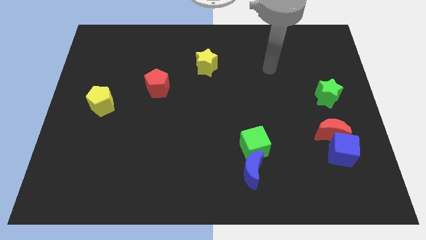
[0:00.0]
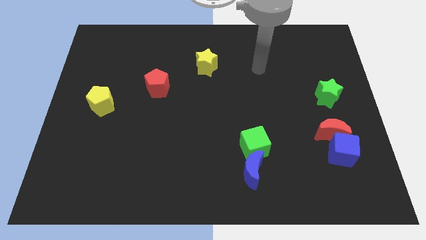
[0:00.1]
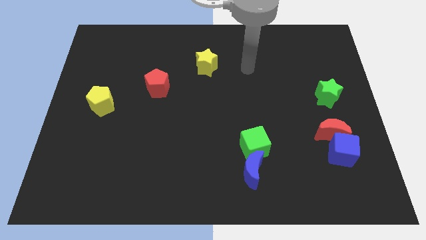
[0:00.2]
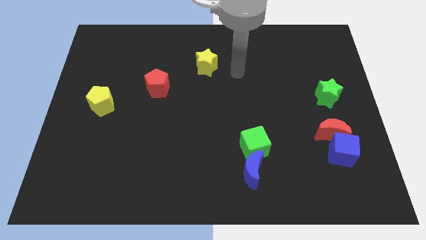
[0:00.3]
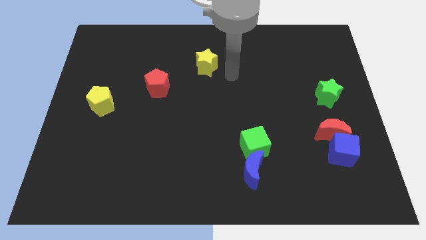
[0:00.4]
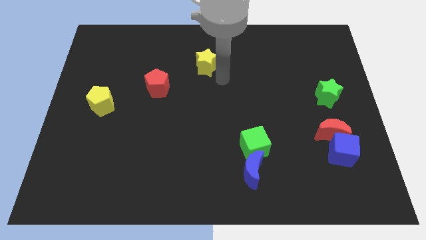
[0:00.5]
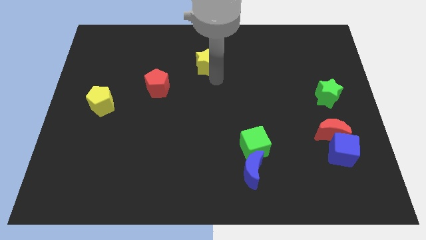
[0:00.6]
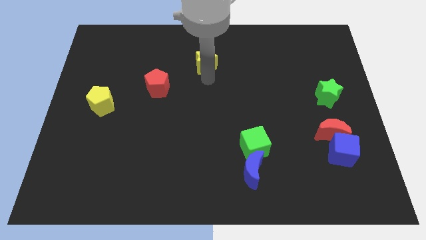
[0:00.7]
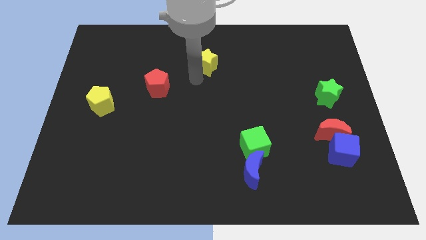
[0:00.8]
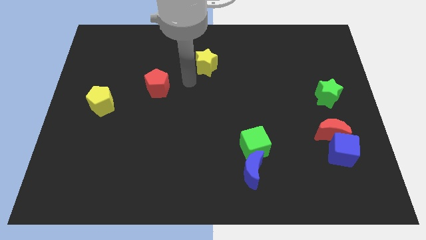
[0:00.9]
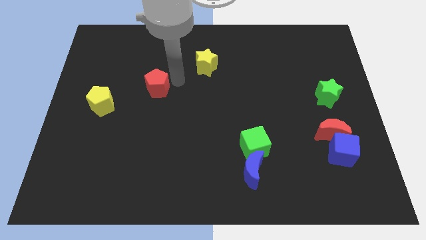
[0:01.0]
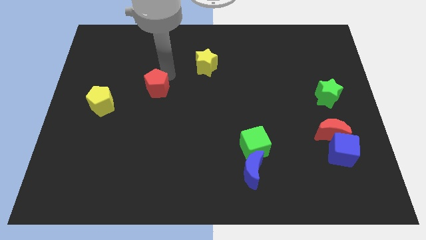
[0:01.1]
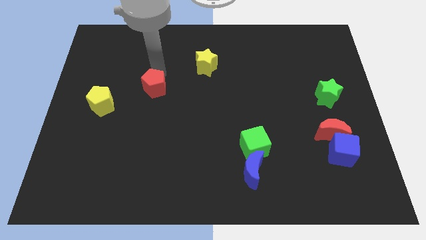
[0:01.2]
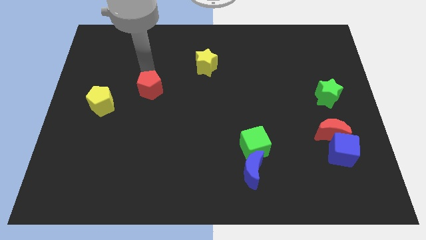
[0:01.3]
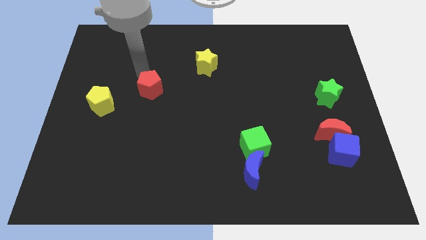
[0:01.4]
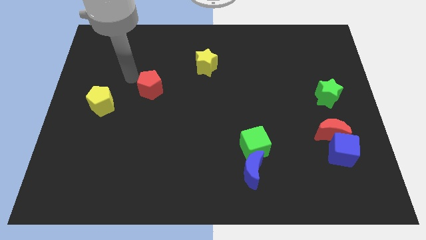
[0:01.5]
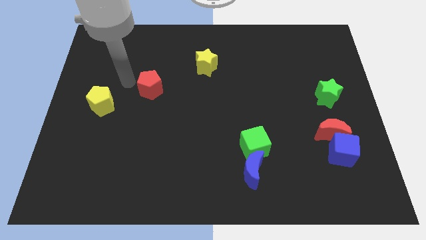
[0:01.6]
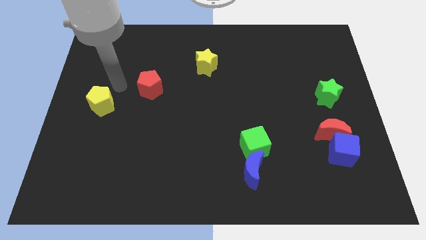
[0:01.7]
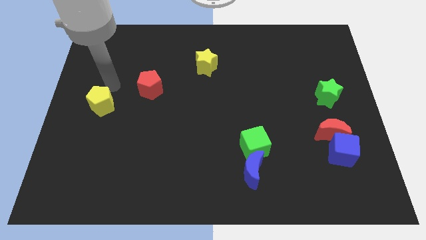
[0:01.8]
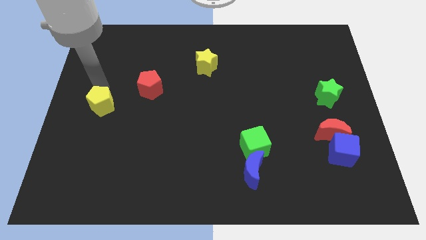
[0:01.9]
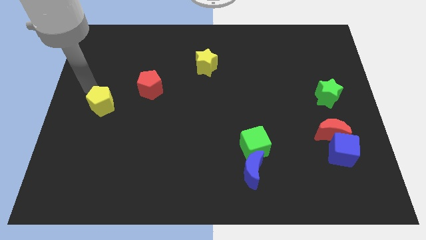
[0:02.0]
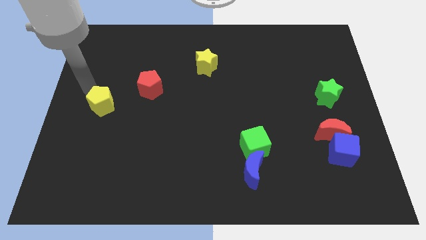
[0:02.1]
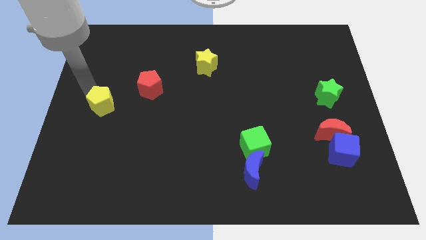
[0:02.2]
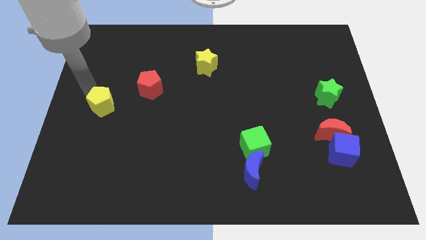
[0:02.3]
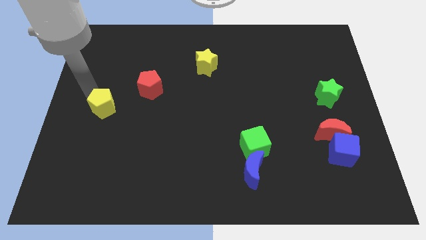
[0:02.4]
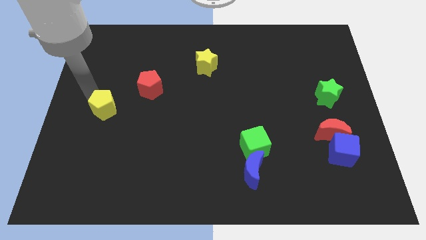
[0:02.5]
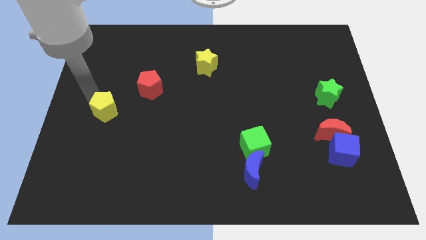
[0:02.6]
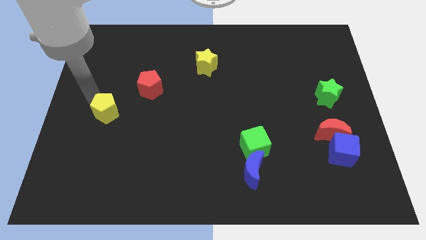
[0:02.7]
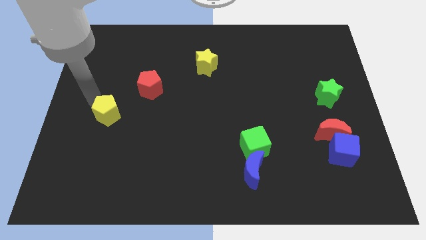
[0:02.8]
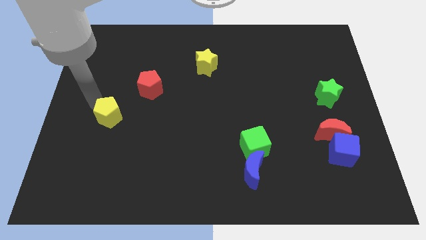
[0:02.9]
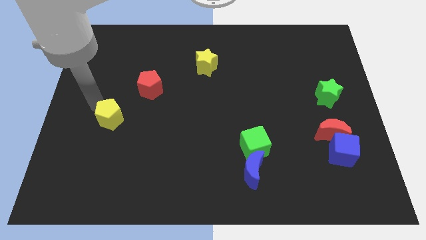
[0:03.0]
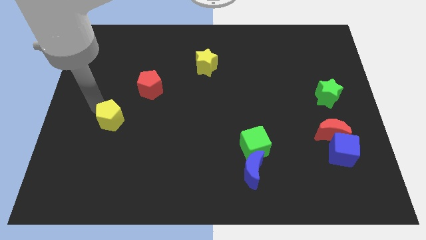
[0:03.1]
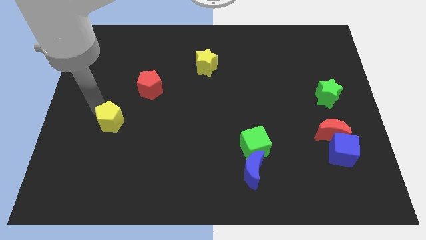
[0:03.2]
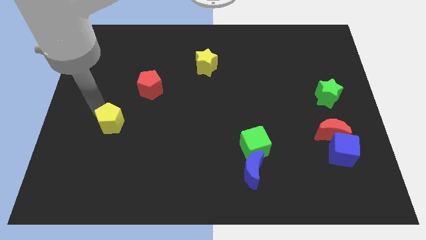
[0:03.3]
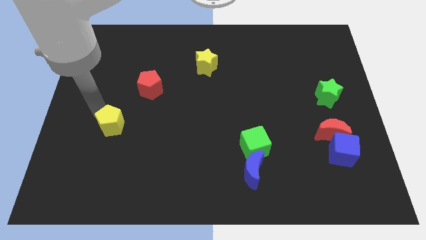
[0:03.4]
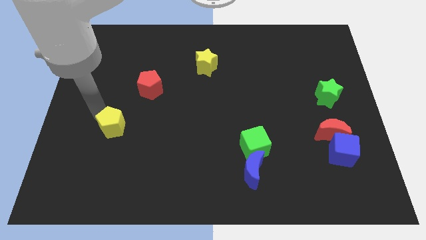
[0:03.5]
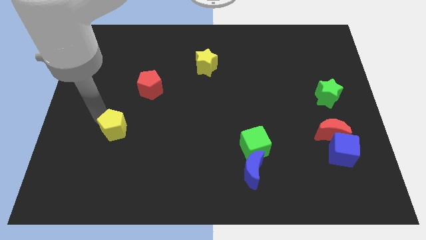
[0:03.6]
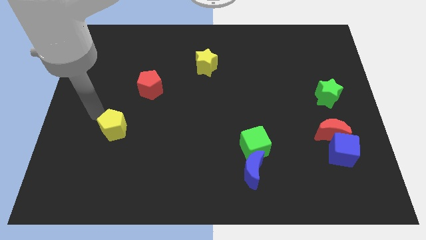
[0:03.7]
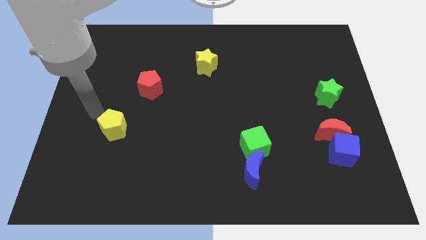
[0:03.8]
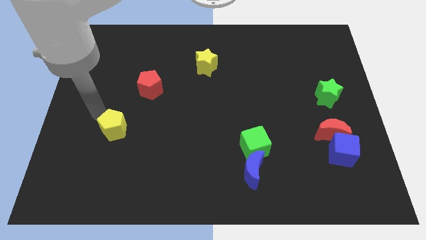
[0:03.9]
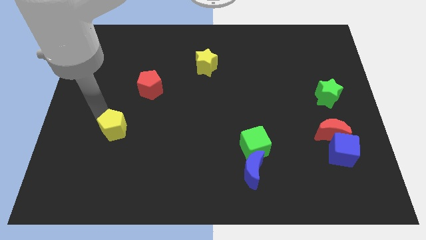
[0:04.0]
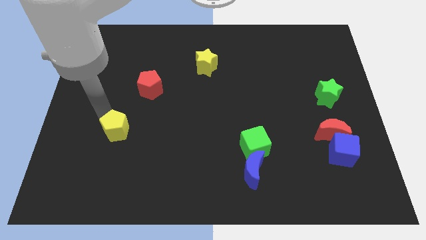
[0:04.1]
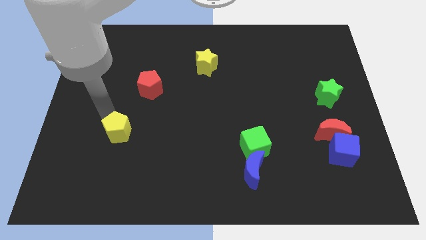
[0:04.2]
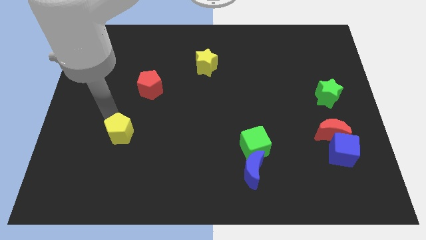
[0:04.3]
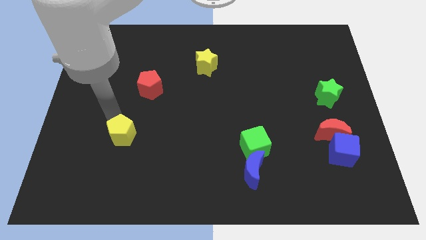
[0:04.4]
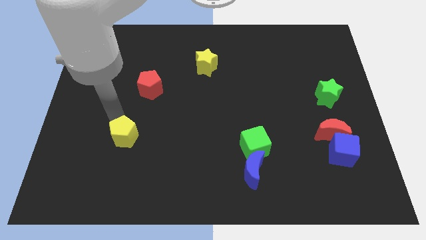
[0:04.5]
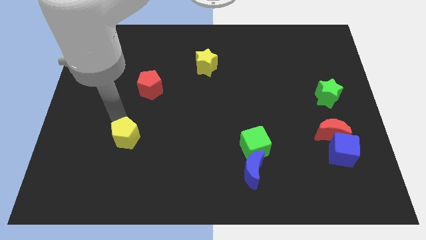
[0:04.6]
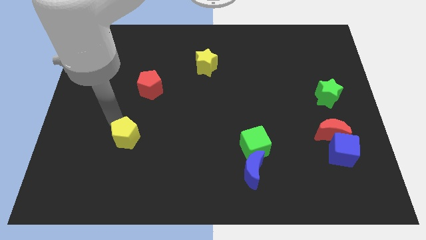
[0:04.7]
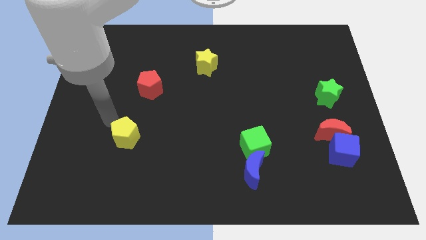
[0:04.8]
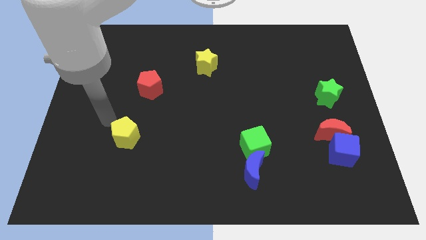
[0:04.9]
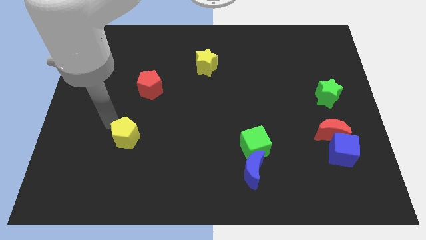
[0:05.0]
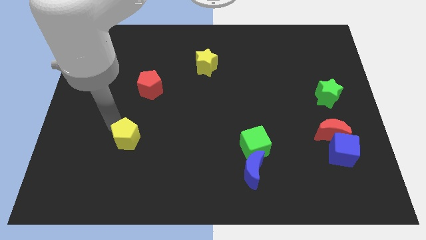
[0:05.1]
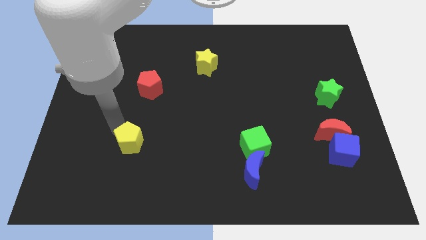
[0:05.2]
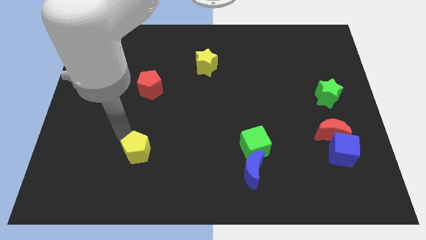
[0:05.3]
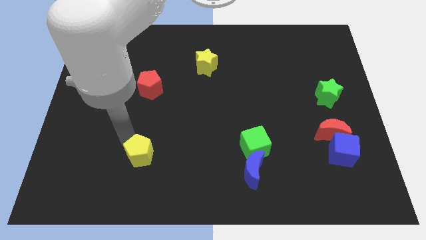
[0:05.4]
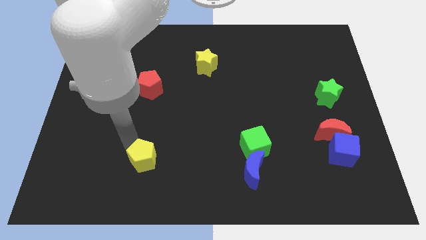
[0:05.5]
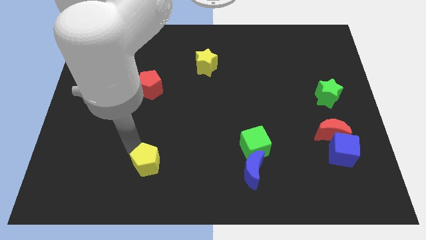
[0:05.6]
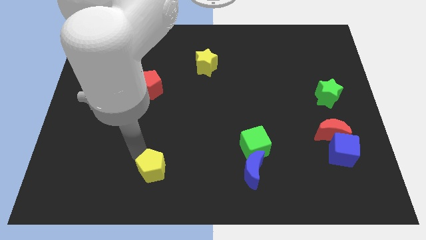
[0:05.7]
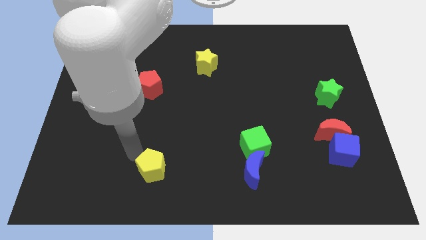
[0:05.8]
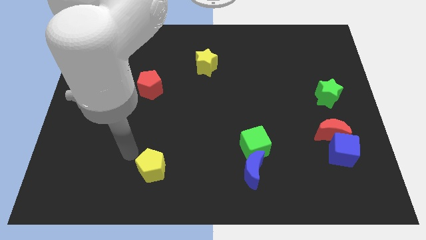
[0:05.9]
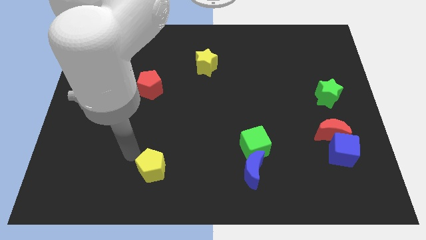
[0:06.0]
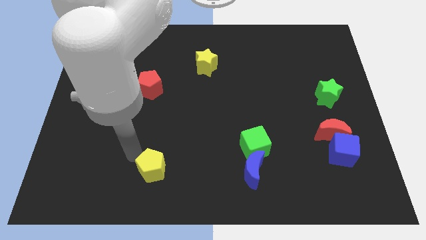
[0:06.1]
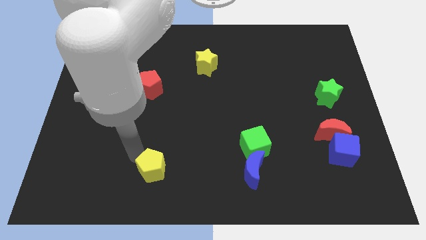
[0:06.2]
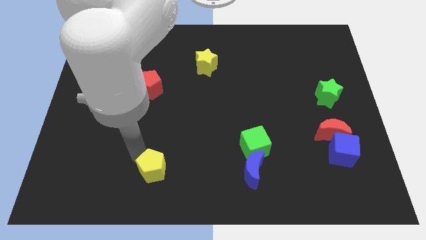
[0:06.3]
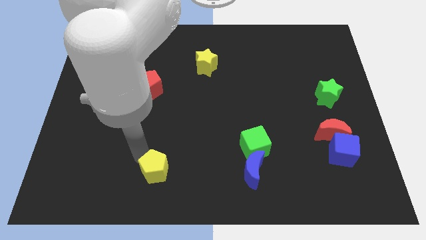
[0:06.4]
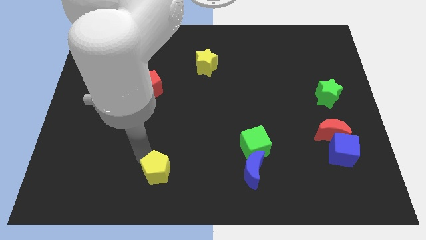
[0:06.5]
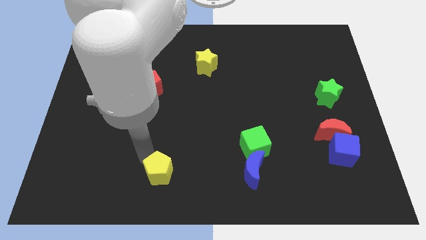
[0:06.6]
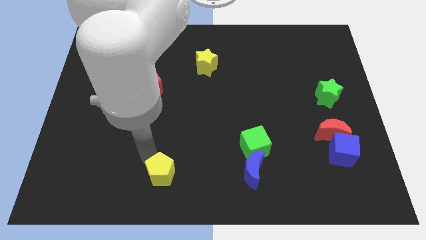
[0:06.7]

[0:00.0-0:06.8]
move the yellow pentagon to the bottom
